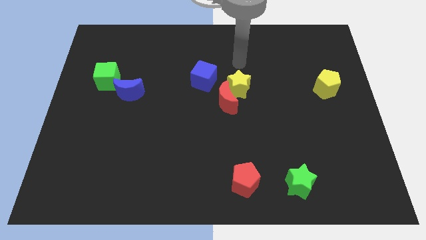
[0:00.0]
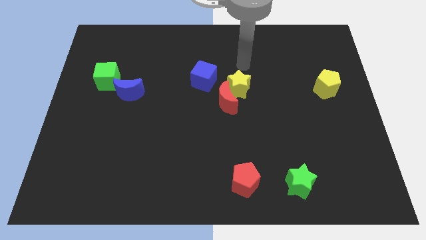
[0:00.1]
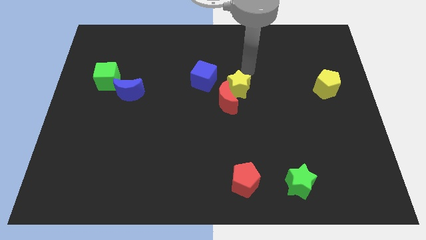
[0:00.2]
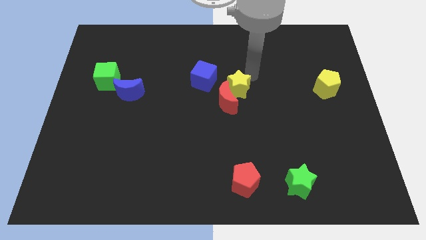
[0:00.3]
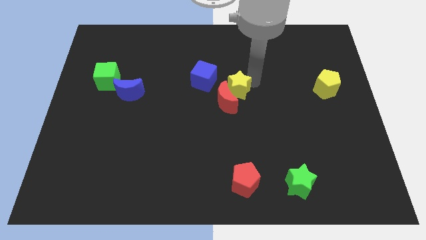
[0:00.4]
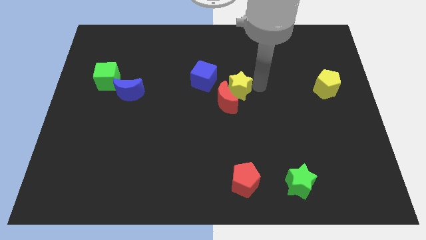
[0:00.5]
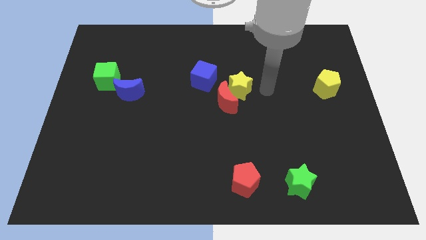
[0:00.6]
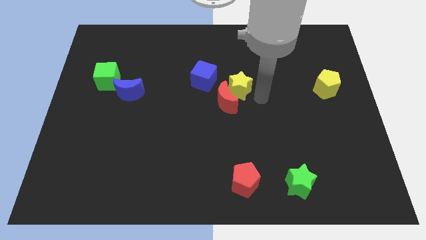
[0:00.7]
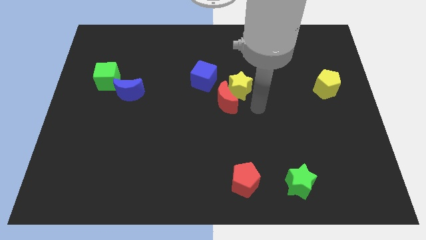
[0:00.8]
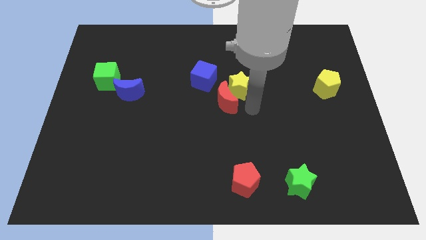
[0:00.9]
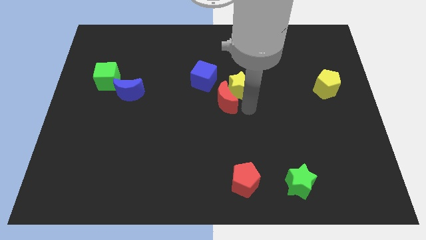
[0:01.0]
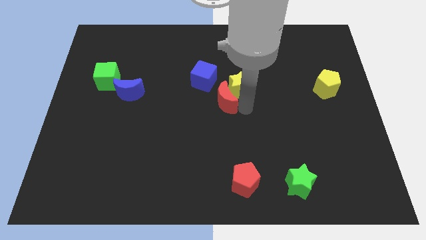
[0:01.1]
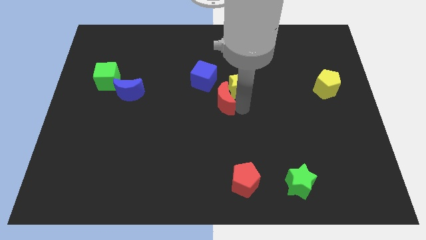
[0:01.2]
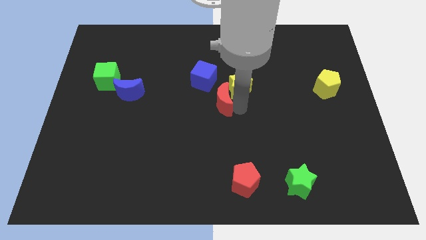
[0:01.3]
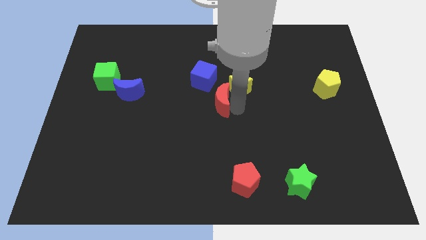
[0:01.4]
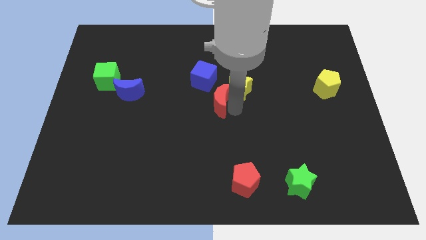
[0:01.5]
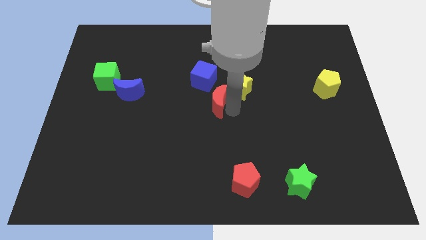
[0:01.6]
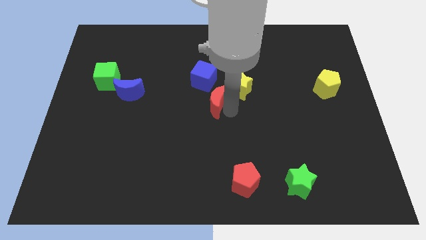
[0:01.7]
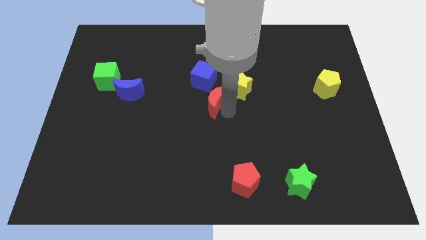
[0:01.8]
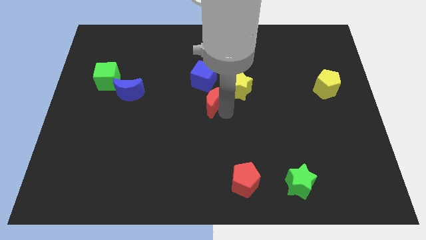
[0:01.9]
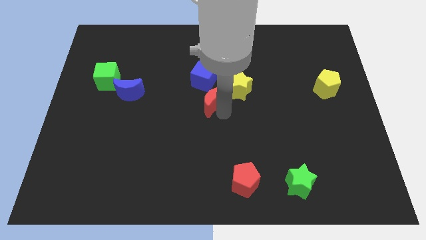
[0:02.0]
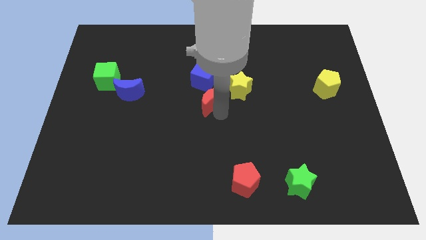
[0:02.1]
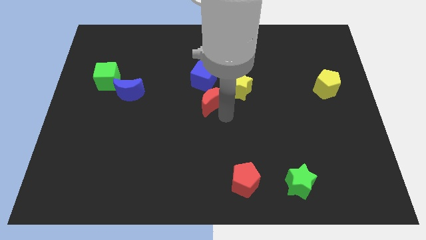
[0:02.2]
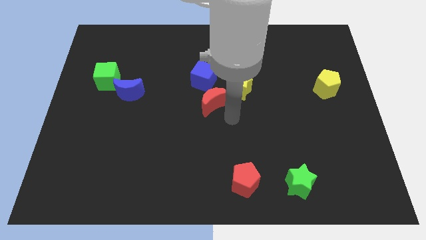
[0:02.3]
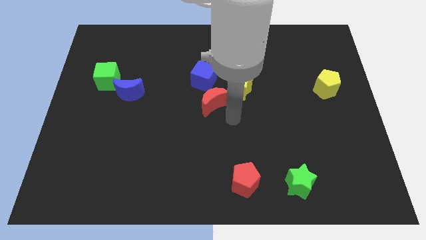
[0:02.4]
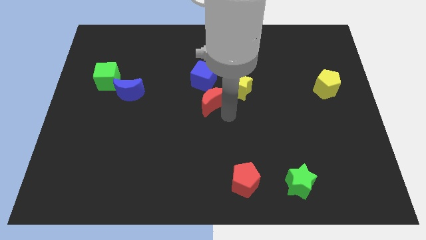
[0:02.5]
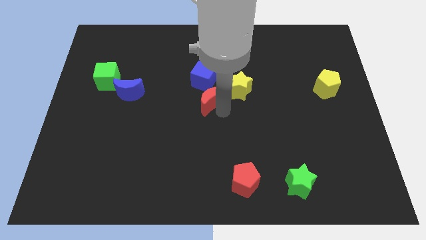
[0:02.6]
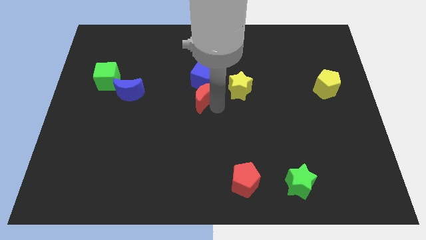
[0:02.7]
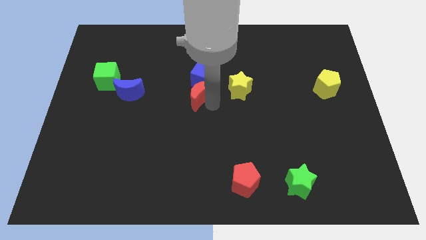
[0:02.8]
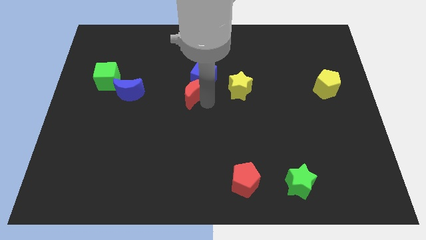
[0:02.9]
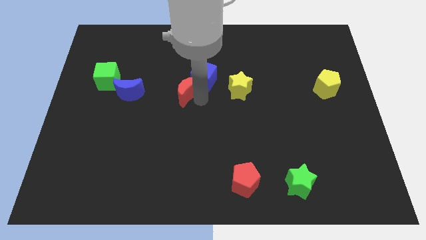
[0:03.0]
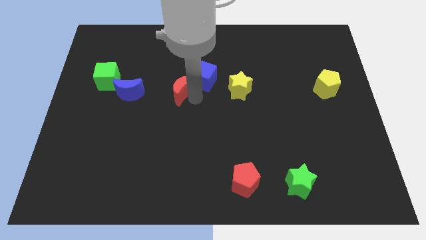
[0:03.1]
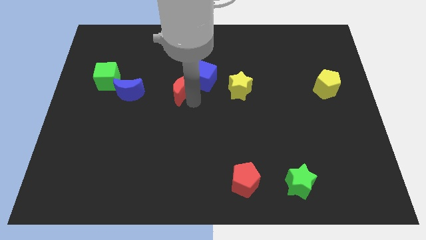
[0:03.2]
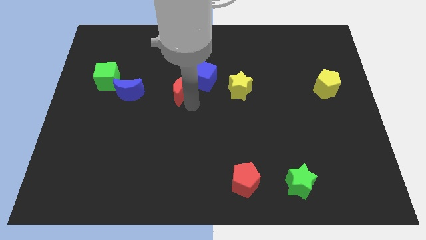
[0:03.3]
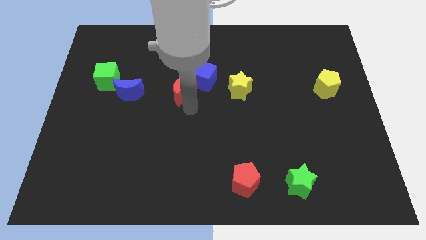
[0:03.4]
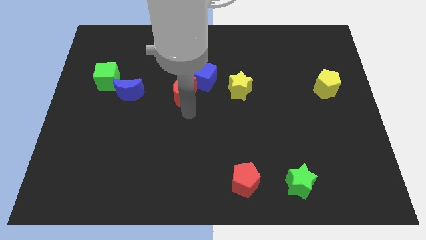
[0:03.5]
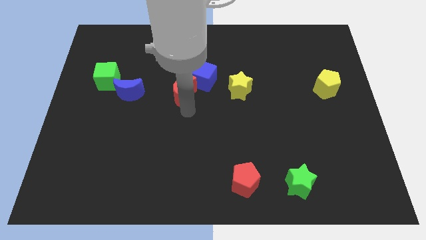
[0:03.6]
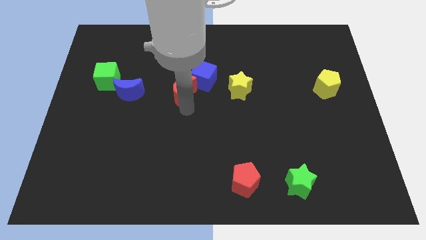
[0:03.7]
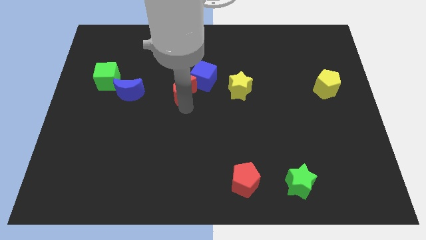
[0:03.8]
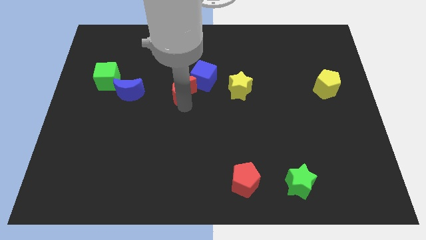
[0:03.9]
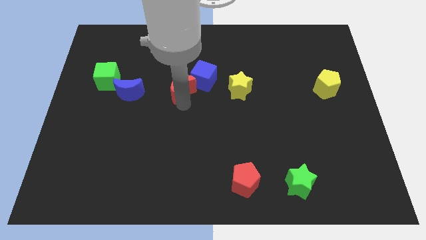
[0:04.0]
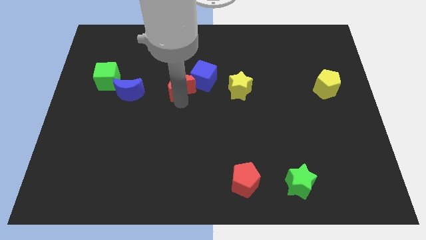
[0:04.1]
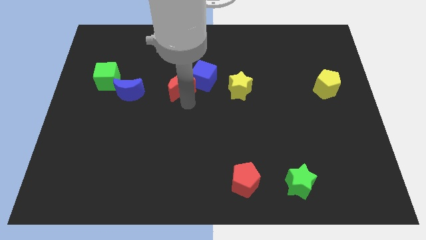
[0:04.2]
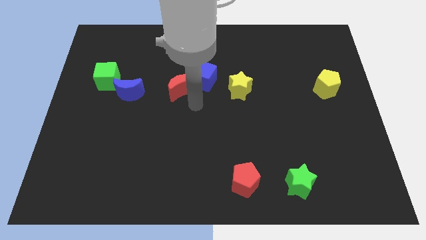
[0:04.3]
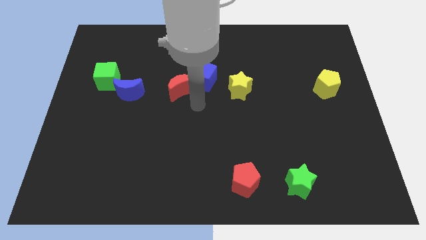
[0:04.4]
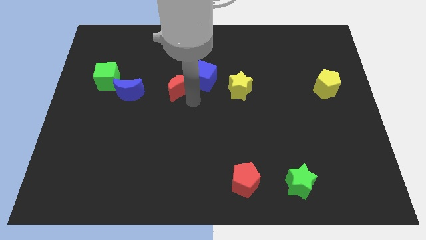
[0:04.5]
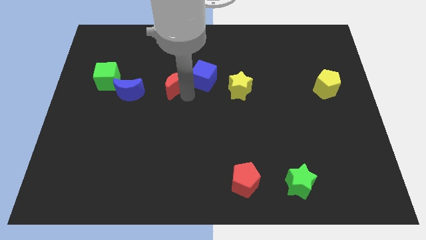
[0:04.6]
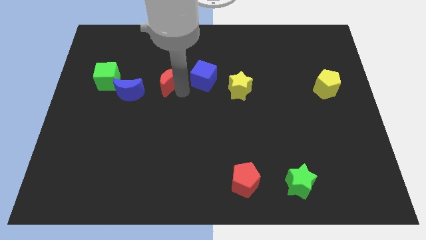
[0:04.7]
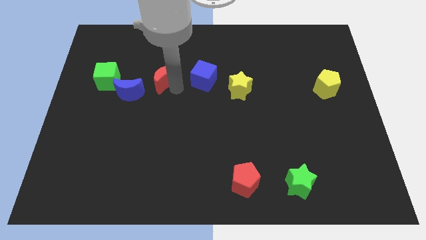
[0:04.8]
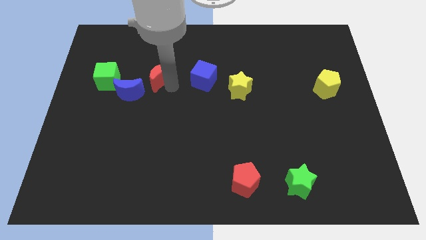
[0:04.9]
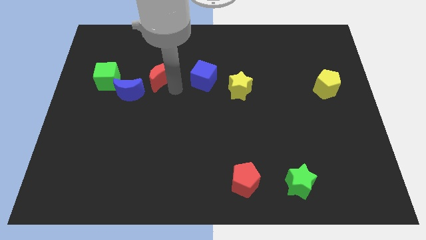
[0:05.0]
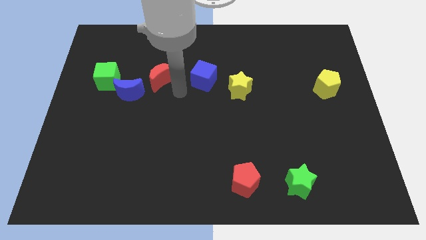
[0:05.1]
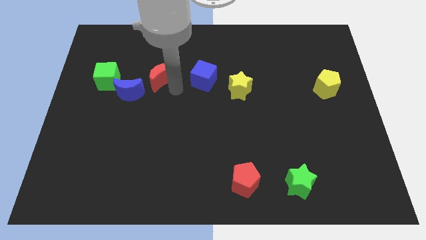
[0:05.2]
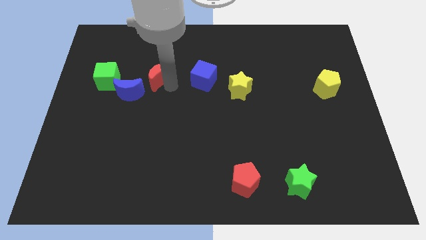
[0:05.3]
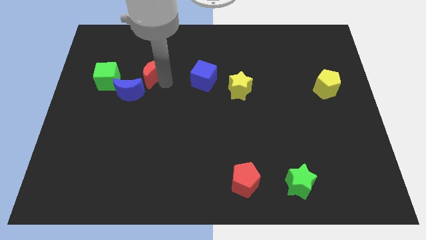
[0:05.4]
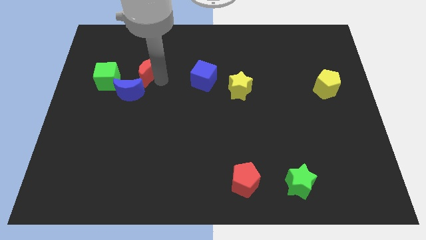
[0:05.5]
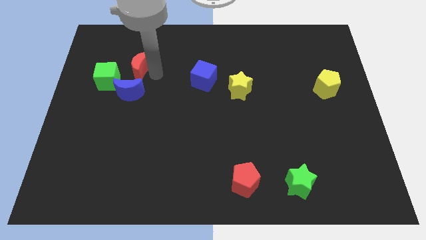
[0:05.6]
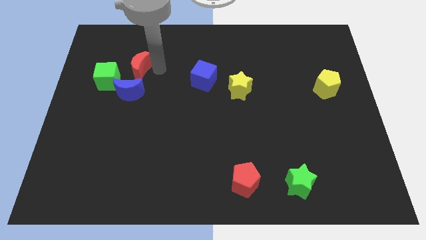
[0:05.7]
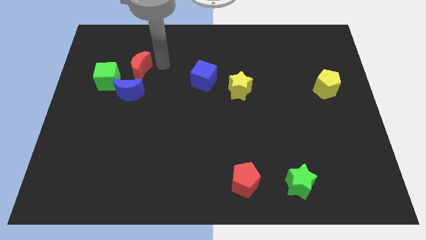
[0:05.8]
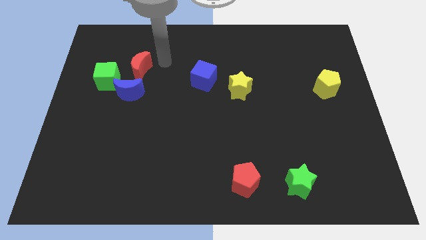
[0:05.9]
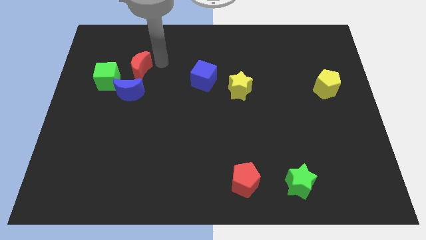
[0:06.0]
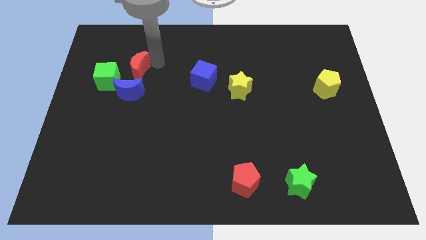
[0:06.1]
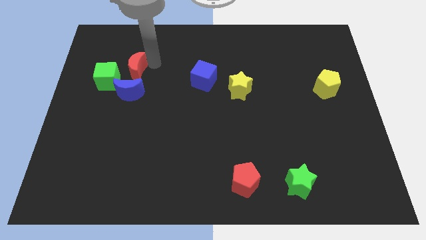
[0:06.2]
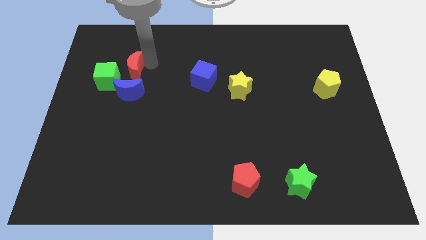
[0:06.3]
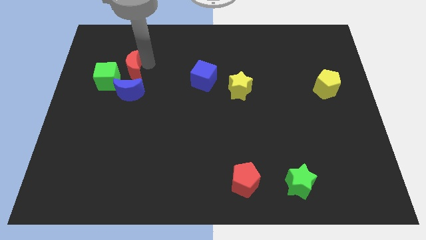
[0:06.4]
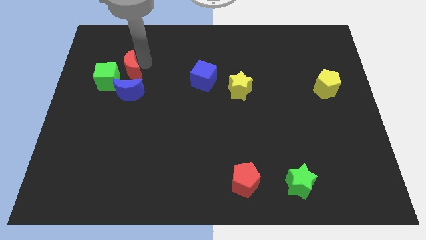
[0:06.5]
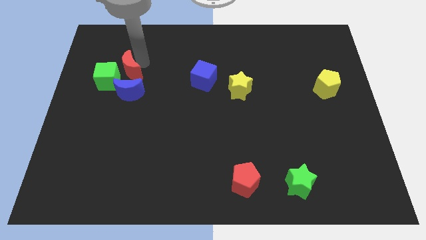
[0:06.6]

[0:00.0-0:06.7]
put the red moon to the green cube

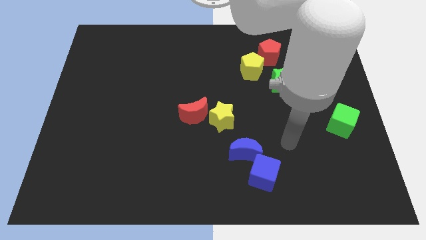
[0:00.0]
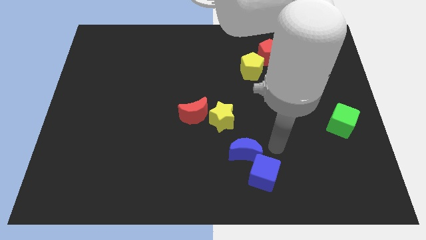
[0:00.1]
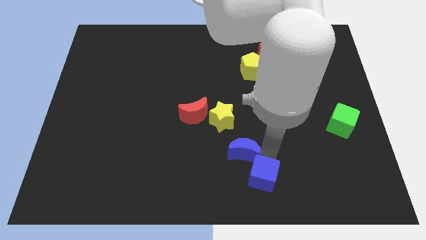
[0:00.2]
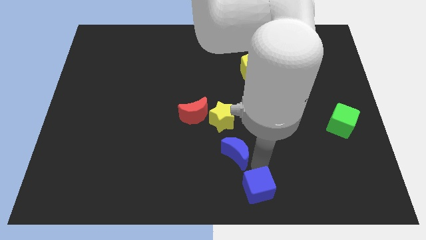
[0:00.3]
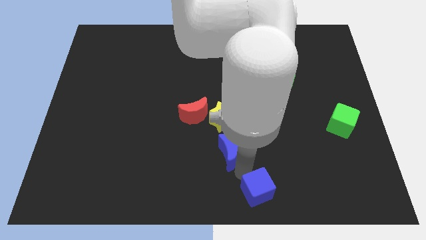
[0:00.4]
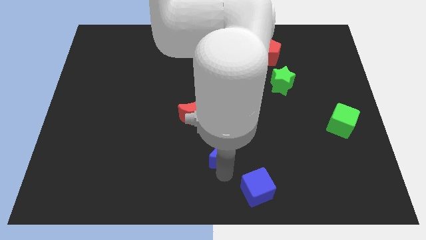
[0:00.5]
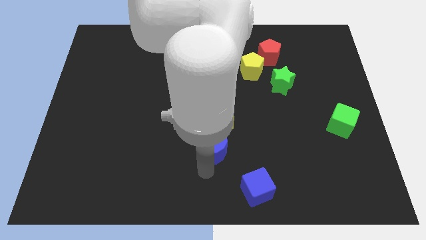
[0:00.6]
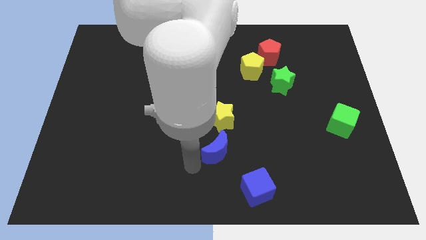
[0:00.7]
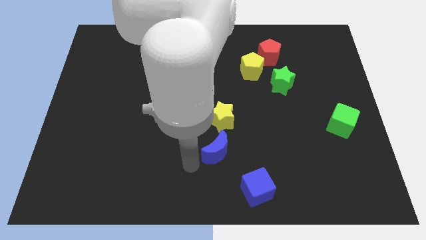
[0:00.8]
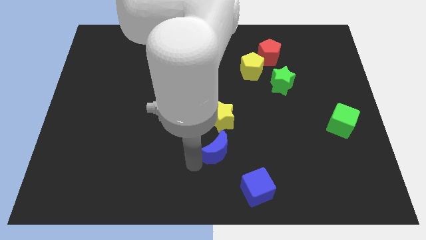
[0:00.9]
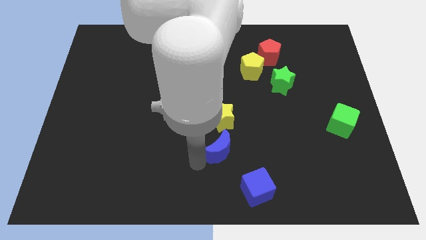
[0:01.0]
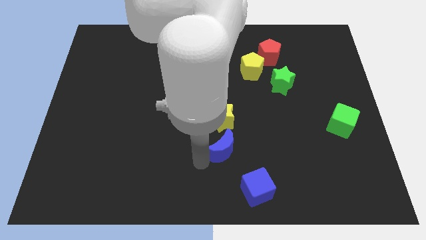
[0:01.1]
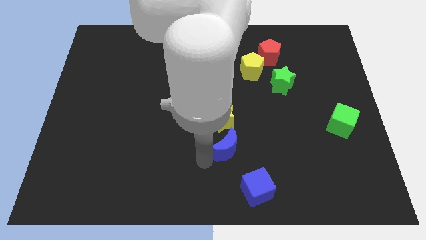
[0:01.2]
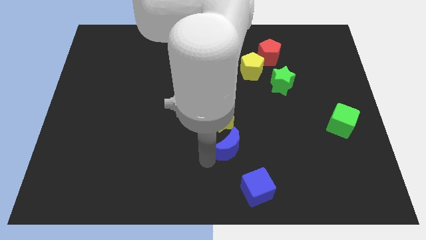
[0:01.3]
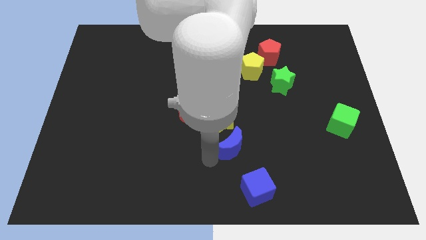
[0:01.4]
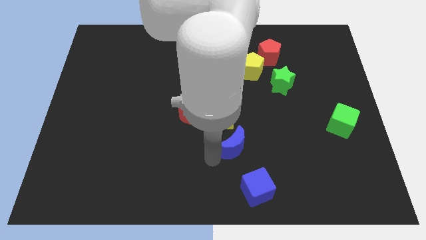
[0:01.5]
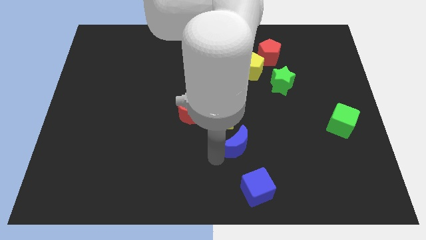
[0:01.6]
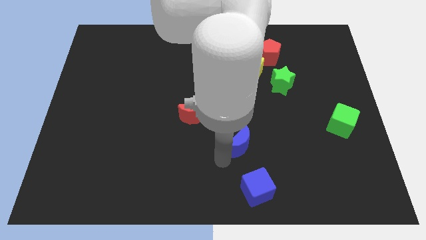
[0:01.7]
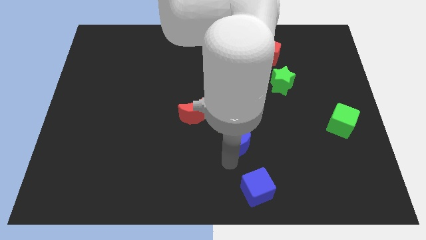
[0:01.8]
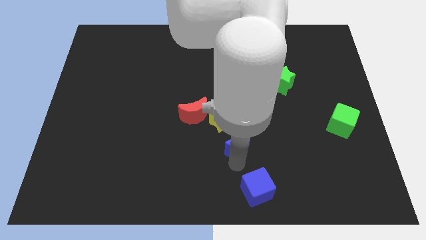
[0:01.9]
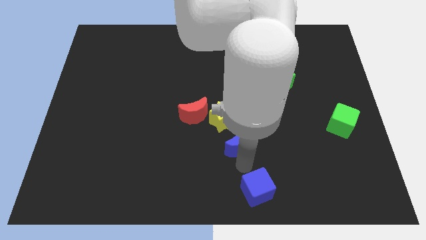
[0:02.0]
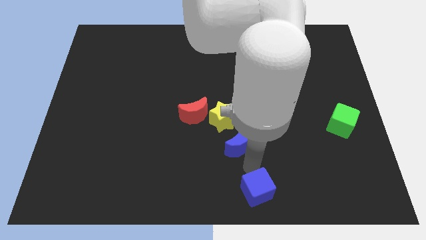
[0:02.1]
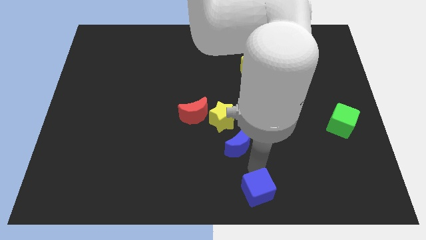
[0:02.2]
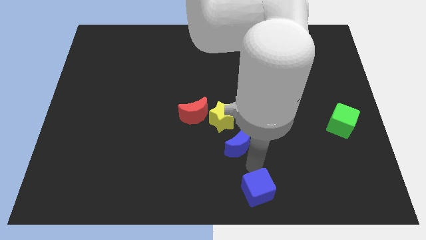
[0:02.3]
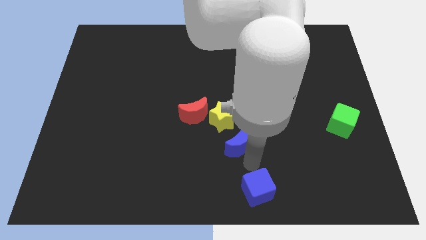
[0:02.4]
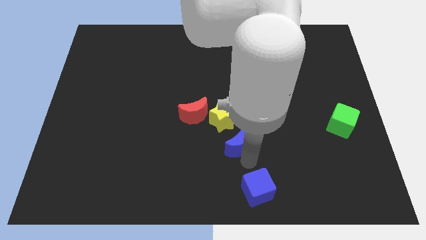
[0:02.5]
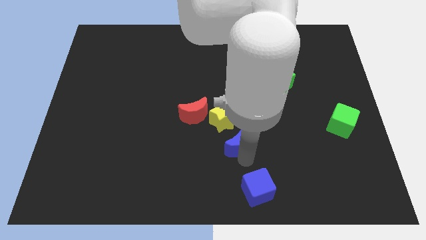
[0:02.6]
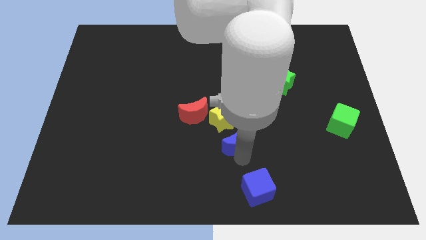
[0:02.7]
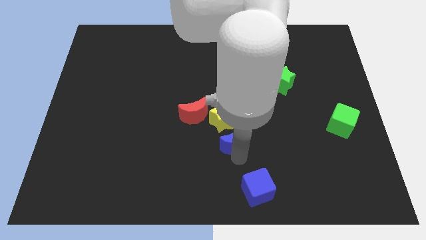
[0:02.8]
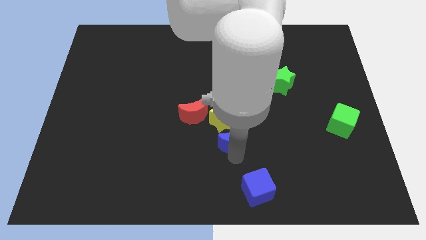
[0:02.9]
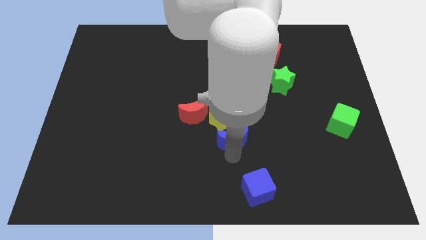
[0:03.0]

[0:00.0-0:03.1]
move the blue moon close to the yellow star
